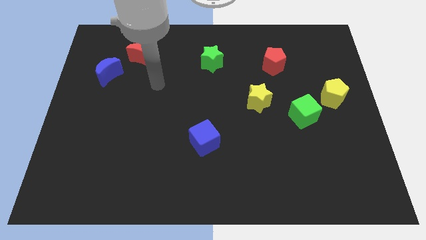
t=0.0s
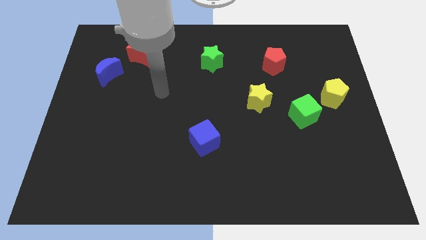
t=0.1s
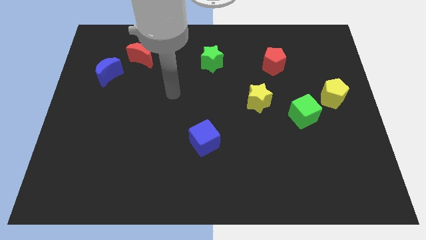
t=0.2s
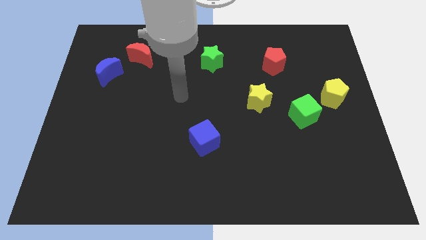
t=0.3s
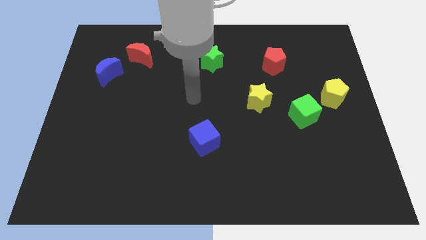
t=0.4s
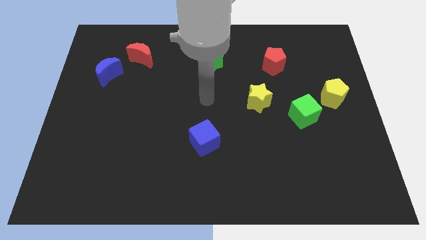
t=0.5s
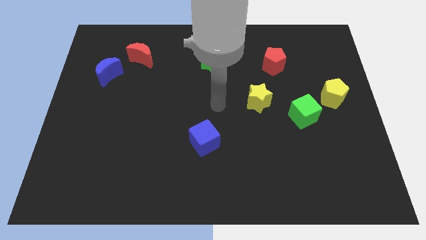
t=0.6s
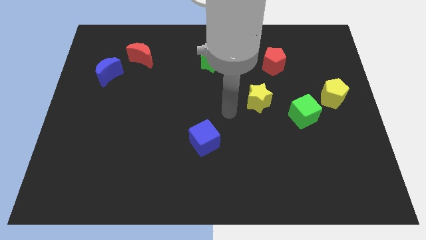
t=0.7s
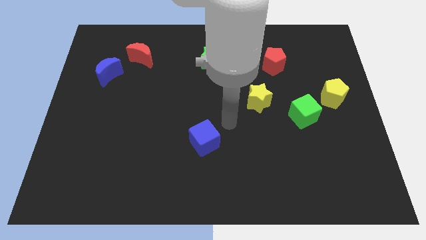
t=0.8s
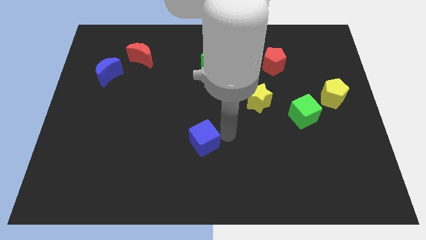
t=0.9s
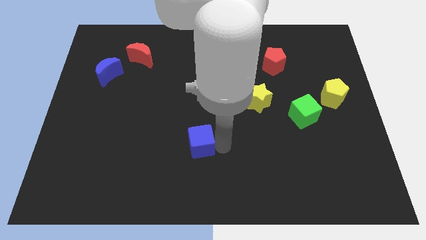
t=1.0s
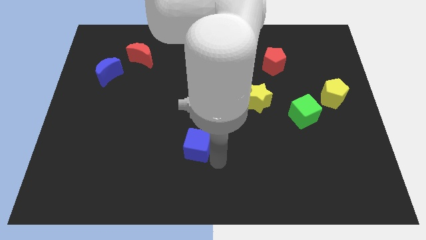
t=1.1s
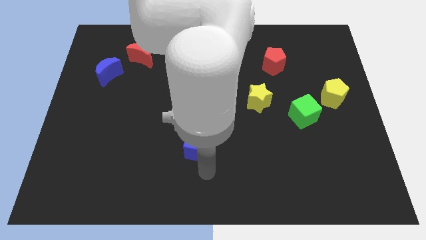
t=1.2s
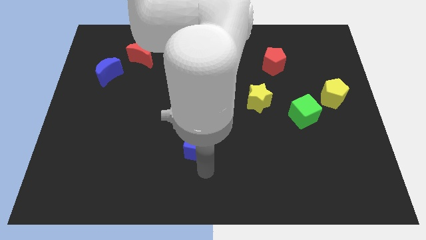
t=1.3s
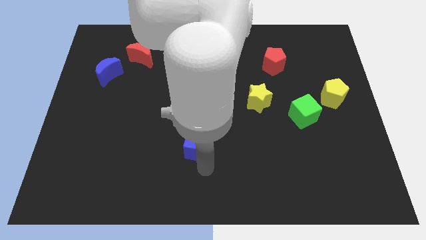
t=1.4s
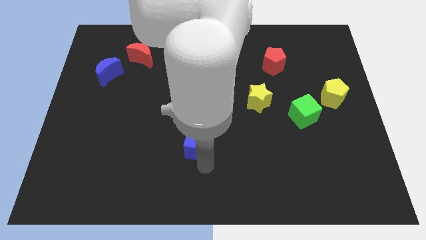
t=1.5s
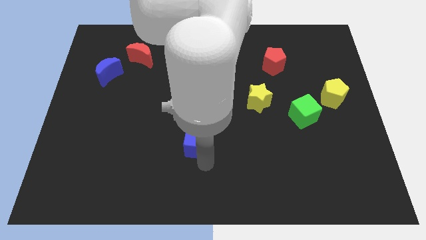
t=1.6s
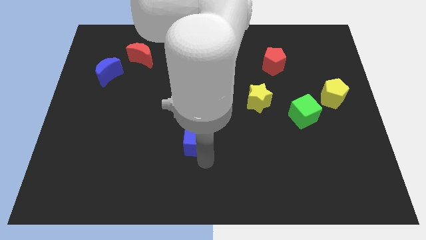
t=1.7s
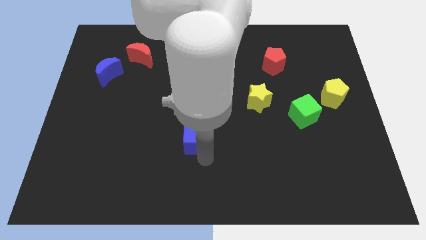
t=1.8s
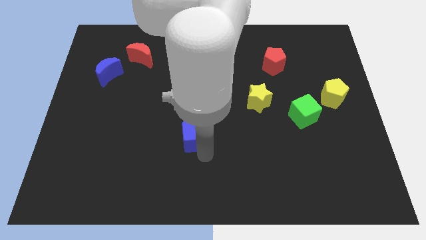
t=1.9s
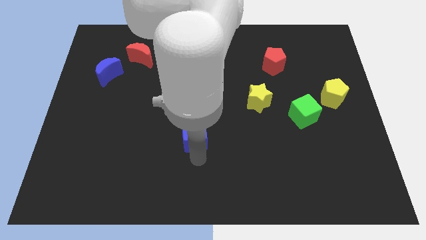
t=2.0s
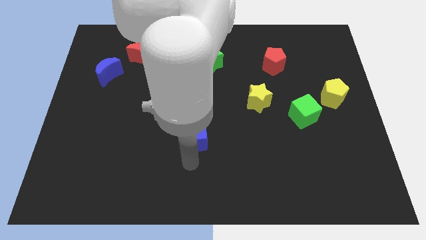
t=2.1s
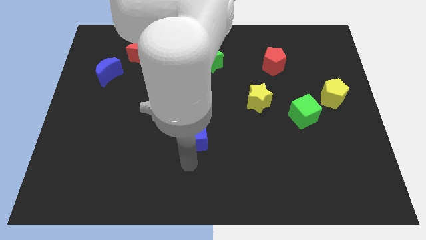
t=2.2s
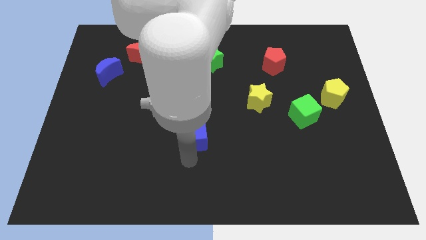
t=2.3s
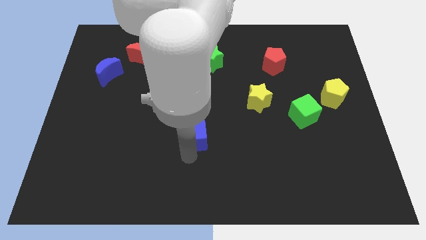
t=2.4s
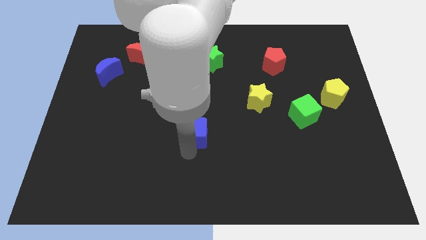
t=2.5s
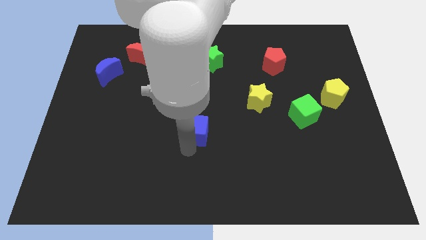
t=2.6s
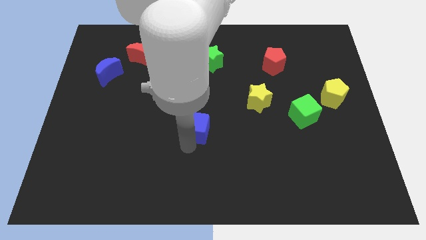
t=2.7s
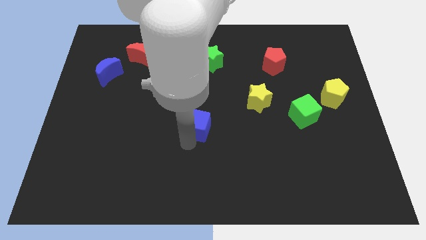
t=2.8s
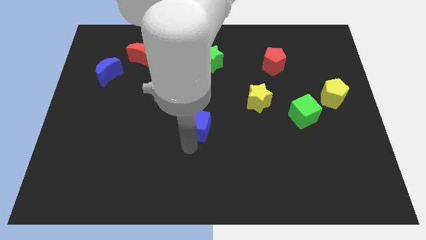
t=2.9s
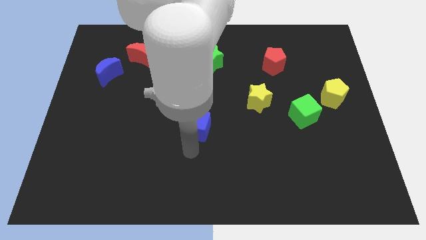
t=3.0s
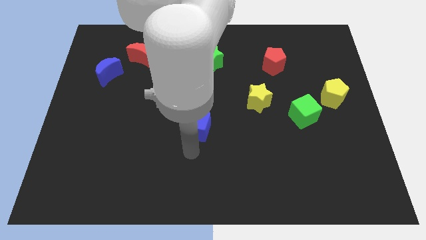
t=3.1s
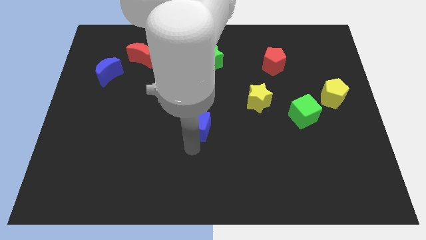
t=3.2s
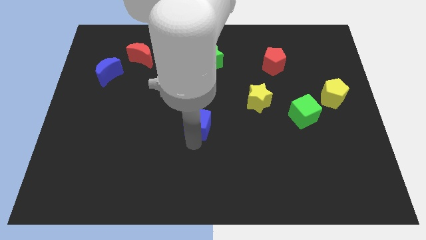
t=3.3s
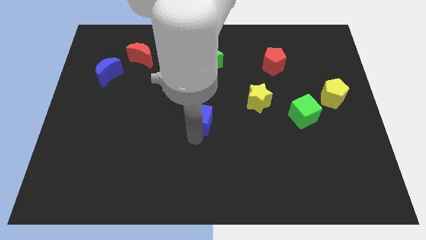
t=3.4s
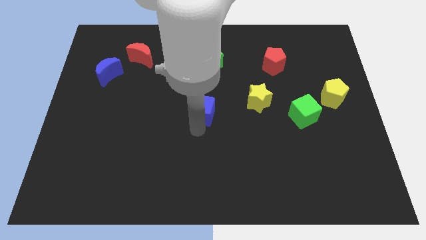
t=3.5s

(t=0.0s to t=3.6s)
slide the blue cube somewhat up

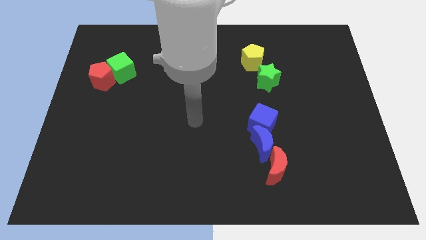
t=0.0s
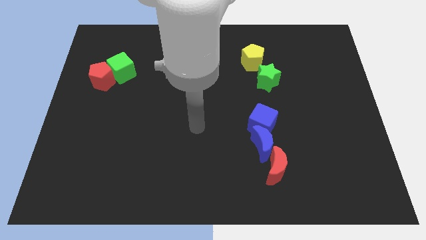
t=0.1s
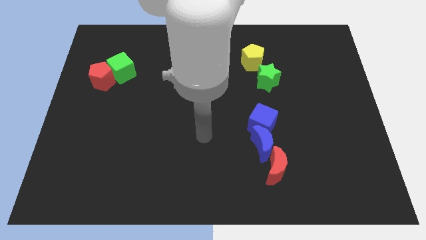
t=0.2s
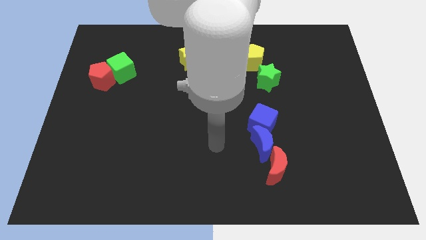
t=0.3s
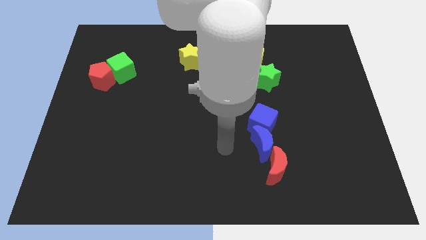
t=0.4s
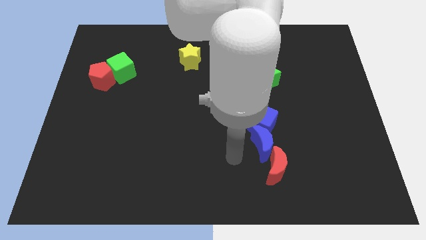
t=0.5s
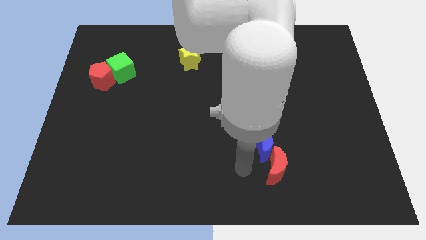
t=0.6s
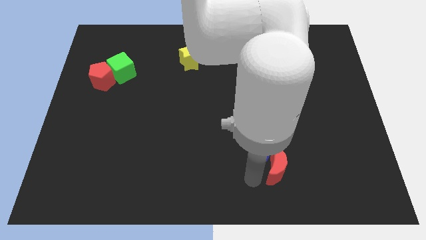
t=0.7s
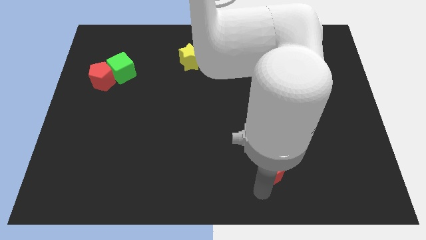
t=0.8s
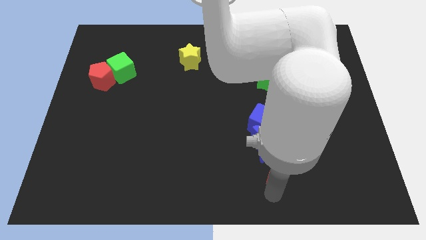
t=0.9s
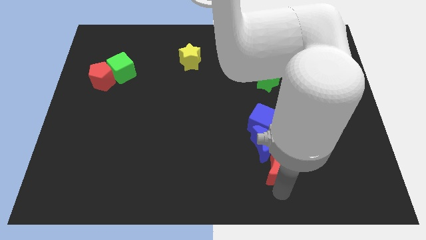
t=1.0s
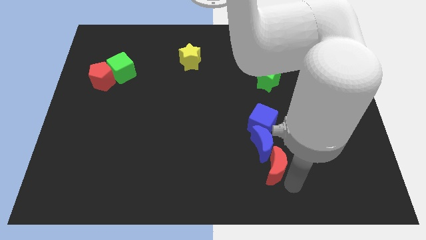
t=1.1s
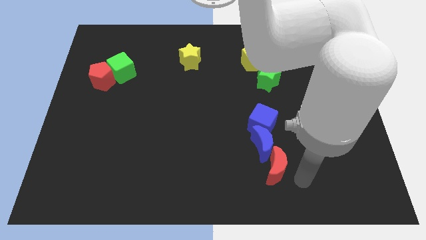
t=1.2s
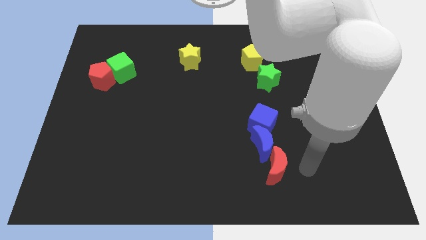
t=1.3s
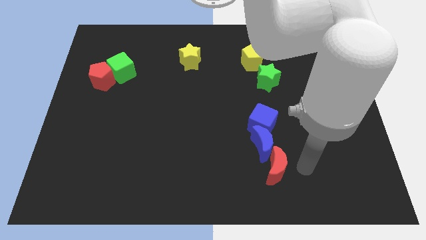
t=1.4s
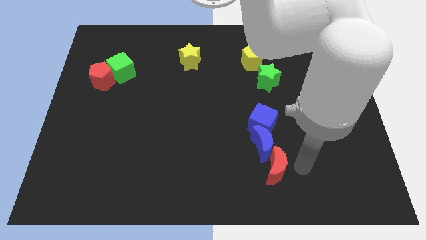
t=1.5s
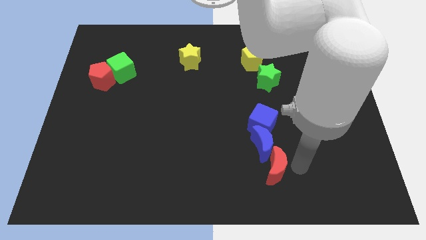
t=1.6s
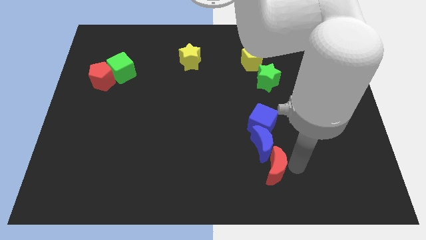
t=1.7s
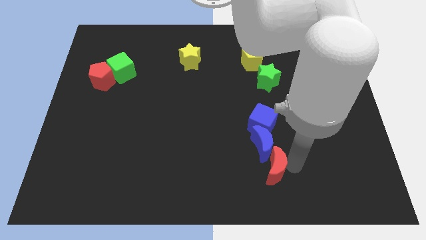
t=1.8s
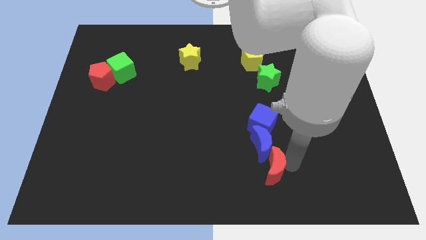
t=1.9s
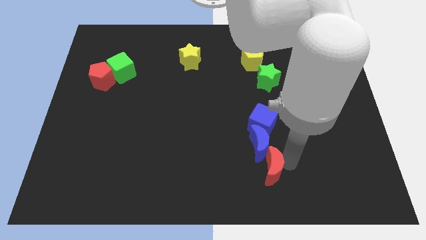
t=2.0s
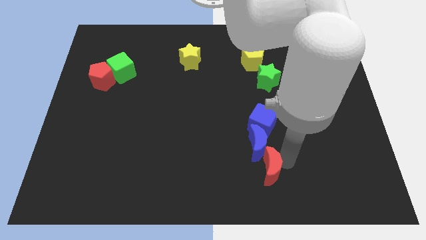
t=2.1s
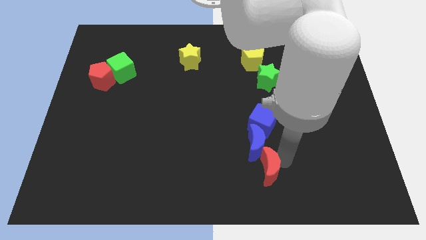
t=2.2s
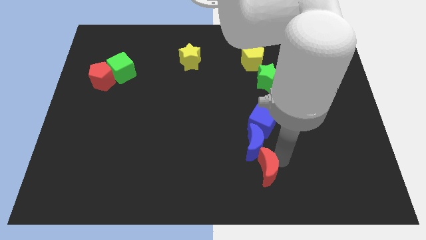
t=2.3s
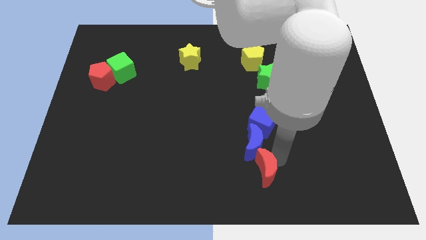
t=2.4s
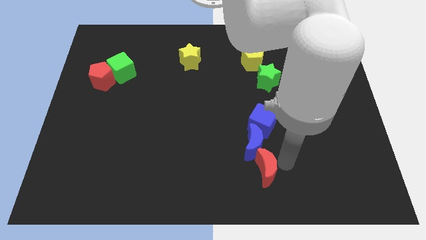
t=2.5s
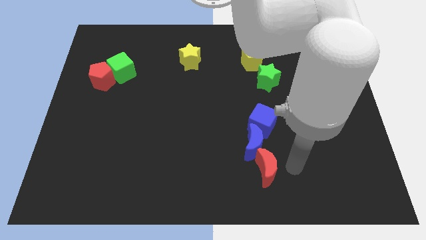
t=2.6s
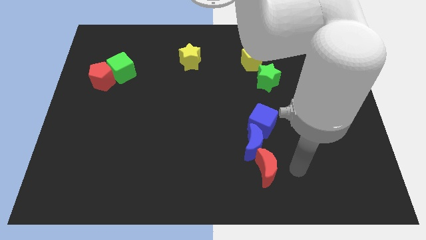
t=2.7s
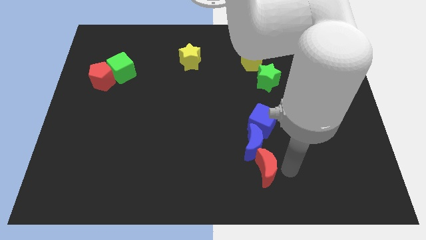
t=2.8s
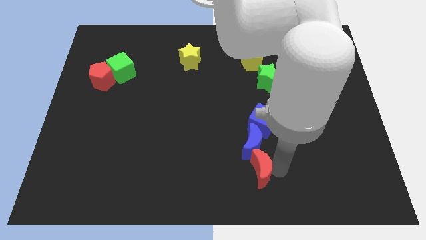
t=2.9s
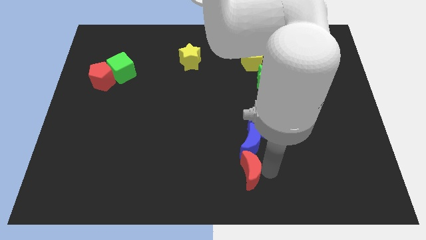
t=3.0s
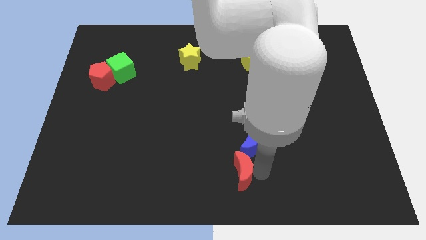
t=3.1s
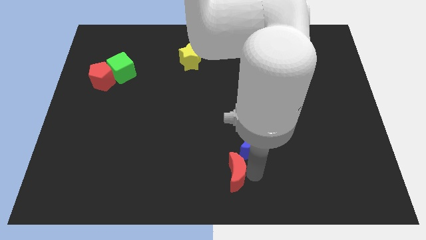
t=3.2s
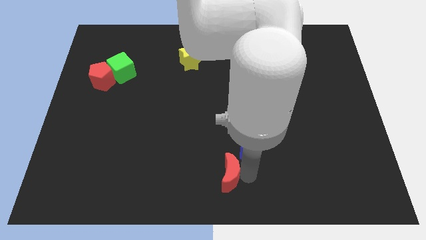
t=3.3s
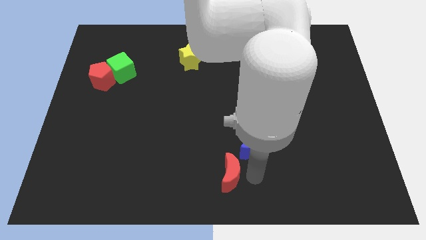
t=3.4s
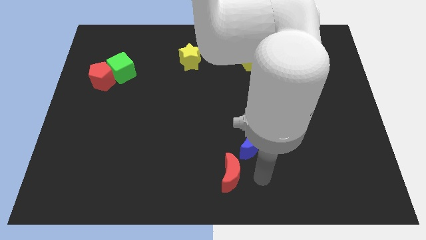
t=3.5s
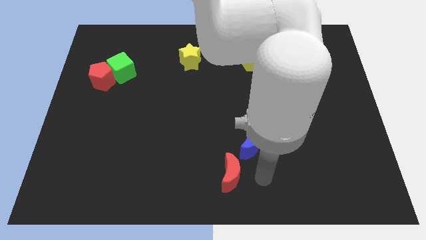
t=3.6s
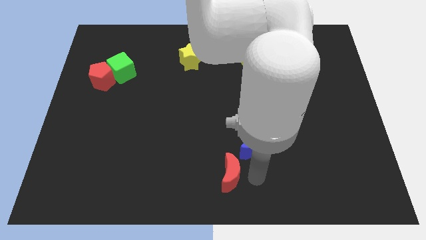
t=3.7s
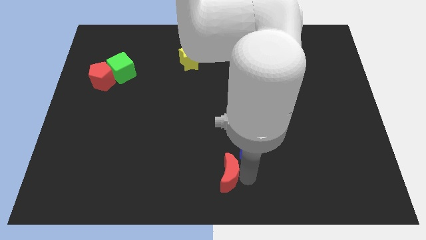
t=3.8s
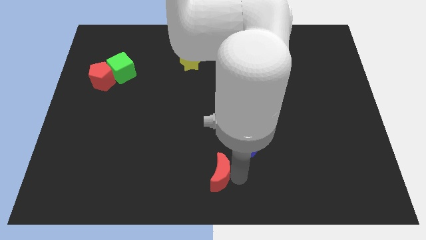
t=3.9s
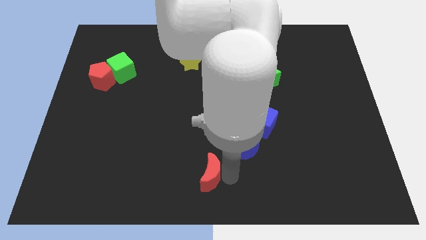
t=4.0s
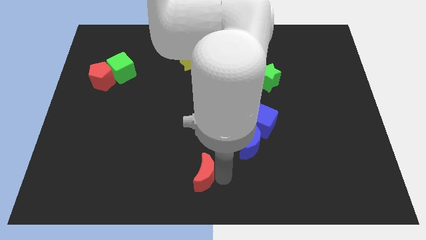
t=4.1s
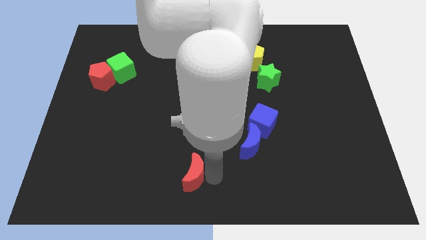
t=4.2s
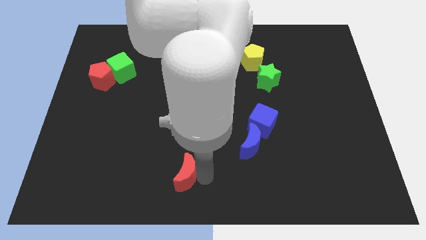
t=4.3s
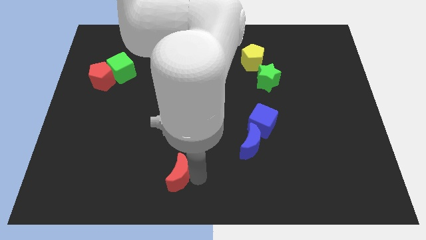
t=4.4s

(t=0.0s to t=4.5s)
move the red moon to the left

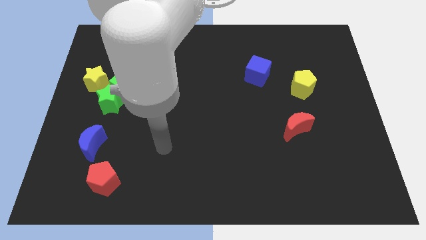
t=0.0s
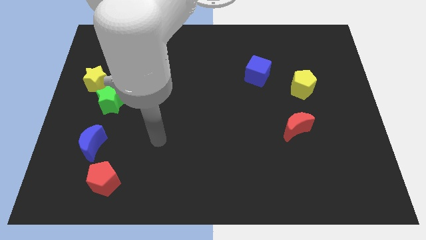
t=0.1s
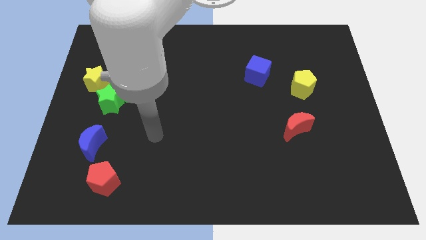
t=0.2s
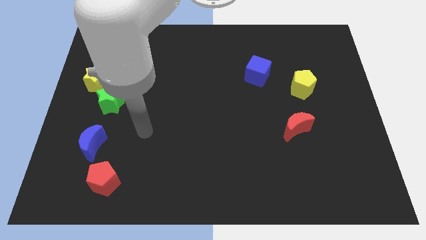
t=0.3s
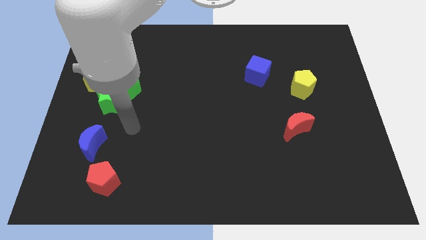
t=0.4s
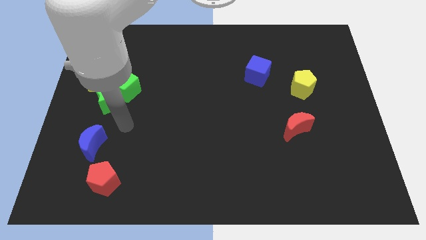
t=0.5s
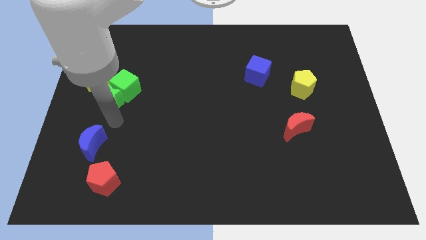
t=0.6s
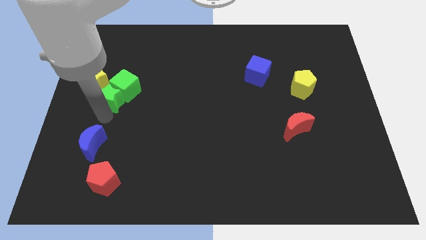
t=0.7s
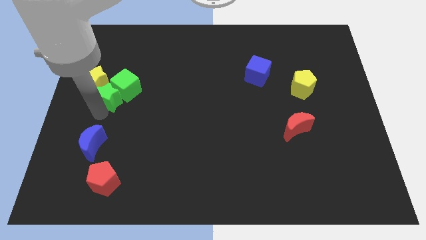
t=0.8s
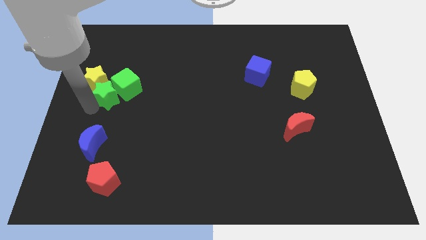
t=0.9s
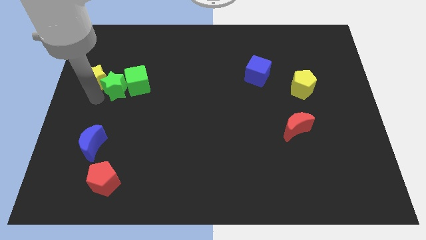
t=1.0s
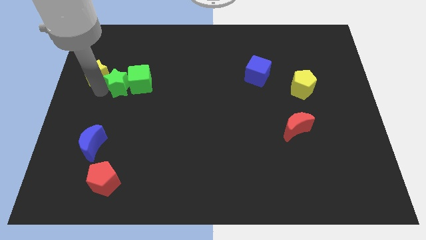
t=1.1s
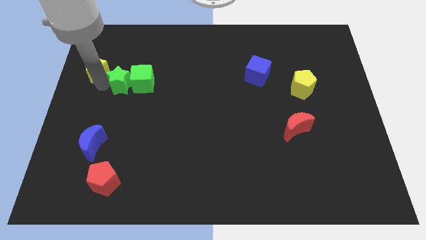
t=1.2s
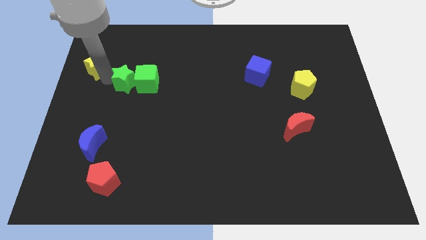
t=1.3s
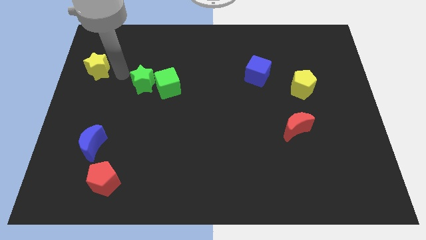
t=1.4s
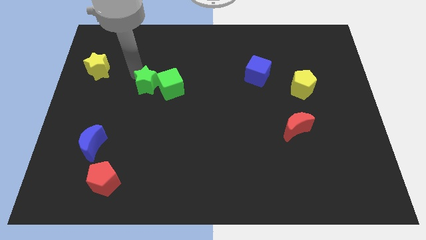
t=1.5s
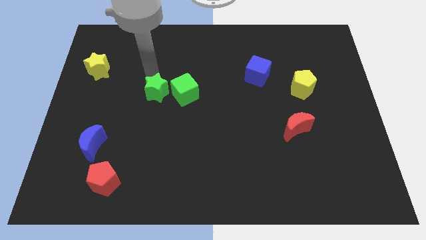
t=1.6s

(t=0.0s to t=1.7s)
move the green cube a little diagonally downwards and right
